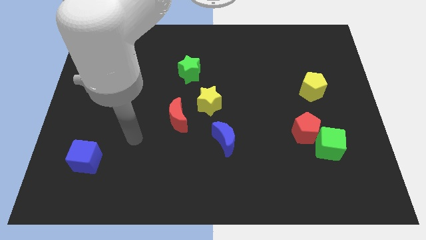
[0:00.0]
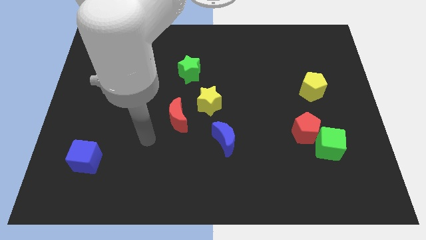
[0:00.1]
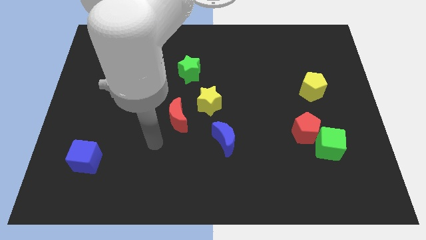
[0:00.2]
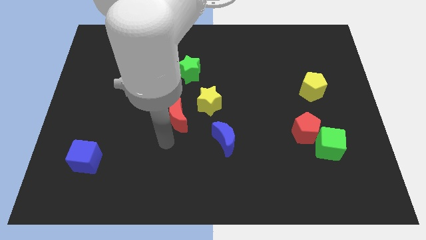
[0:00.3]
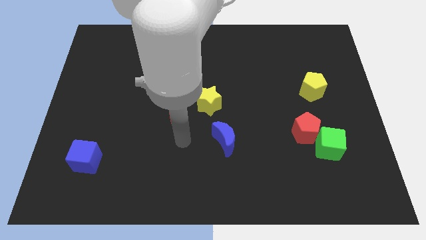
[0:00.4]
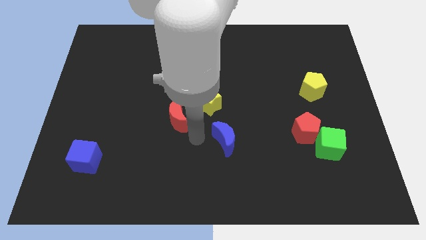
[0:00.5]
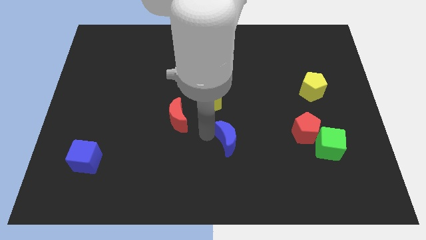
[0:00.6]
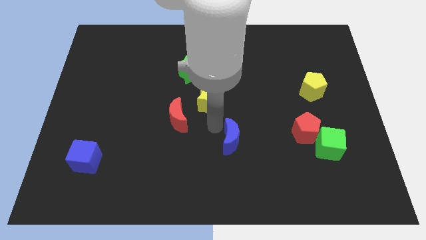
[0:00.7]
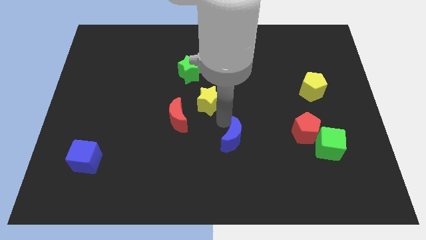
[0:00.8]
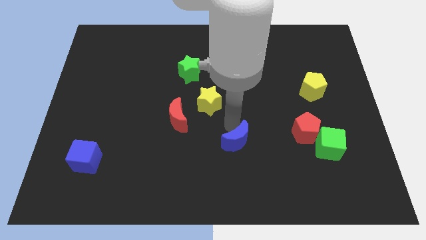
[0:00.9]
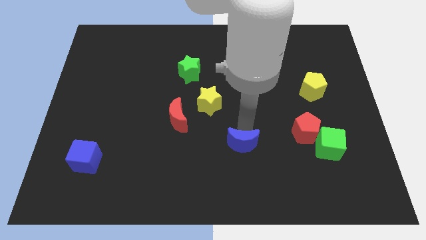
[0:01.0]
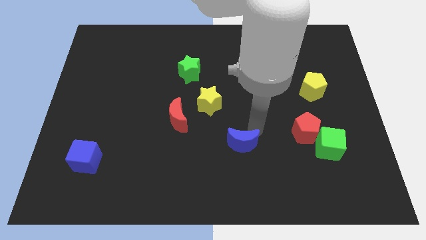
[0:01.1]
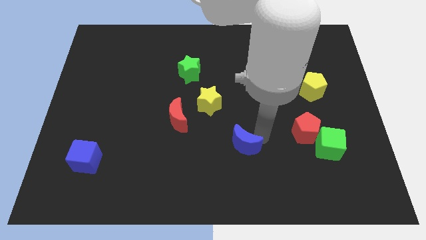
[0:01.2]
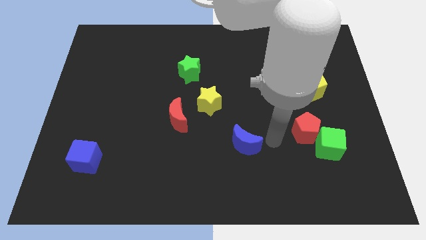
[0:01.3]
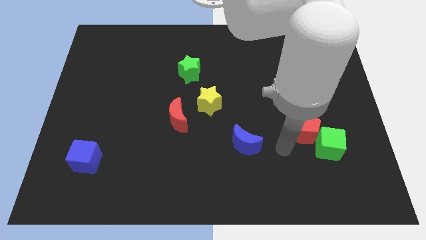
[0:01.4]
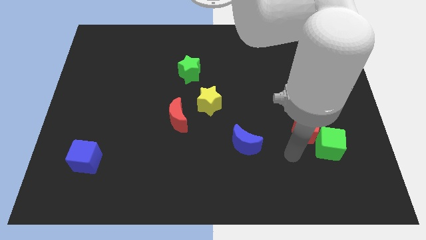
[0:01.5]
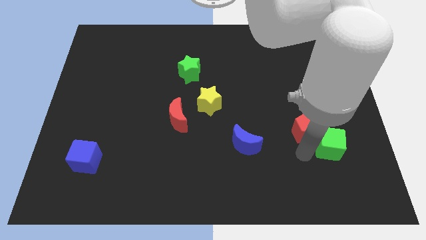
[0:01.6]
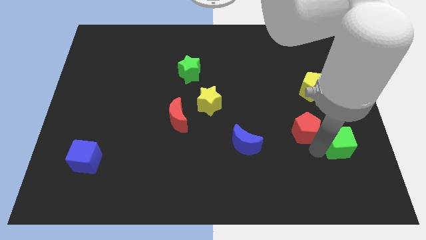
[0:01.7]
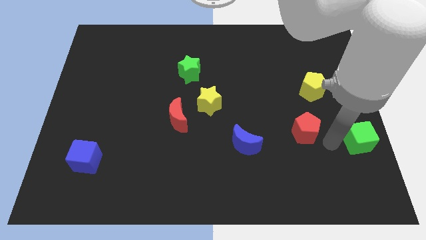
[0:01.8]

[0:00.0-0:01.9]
move the red pentagon away from the green cube

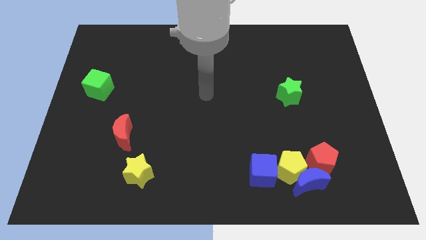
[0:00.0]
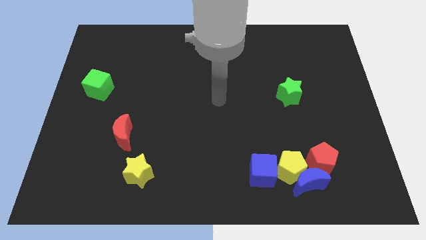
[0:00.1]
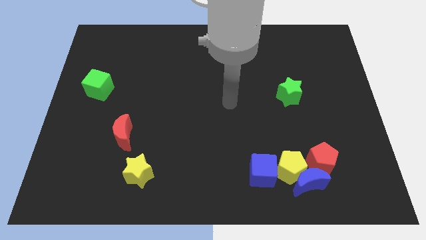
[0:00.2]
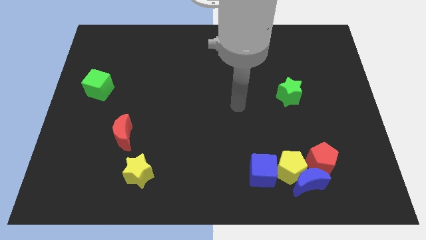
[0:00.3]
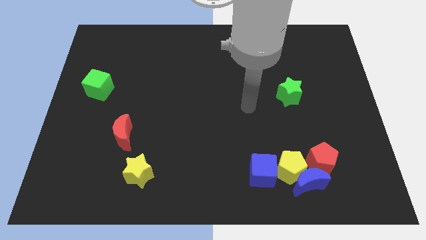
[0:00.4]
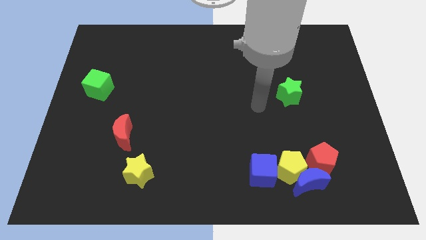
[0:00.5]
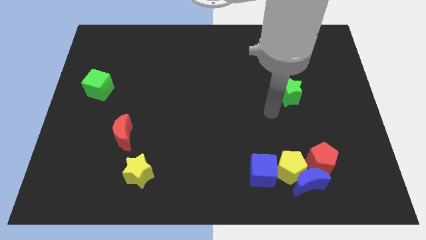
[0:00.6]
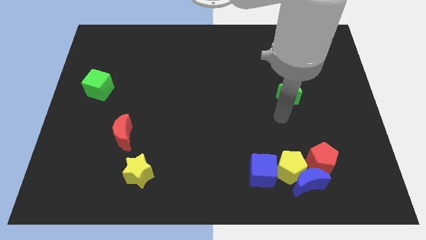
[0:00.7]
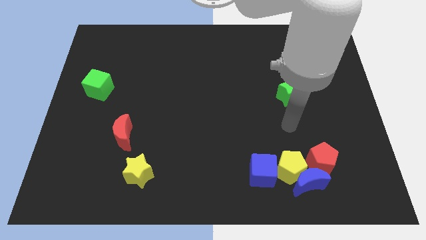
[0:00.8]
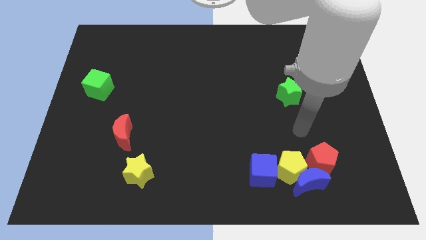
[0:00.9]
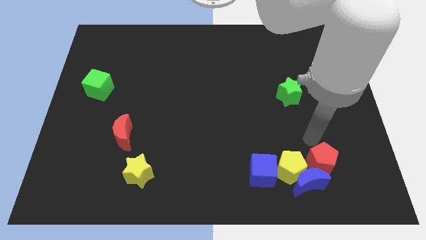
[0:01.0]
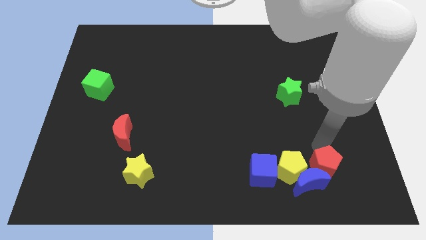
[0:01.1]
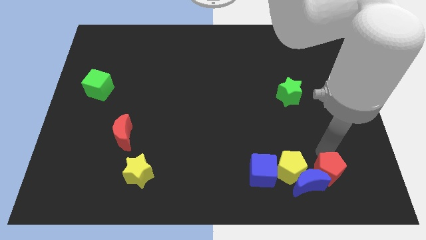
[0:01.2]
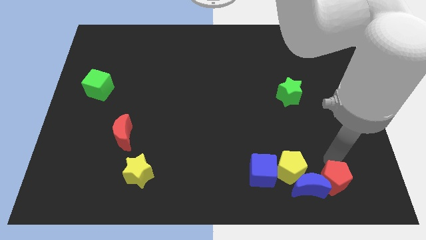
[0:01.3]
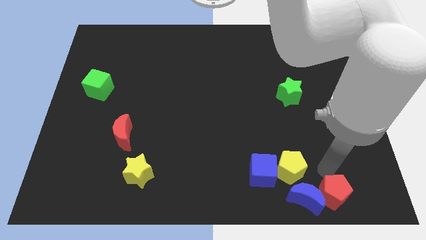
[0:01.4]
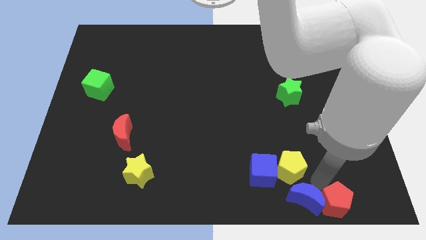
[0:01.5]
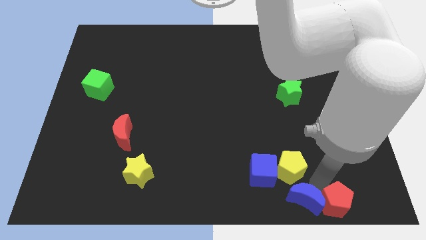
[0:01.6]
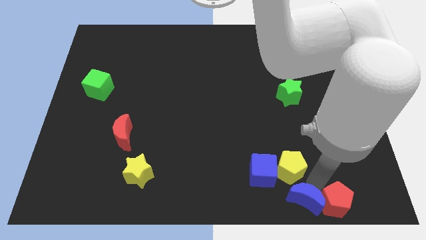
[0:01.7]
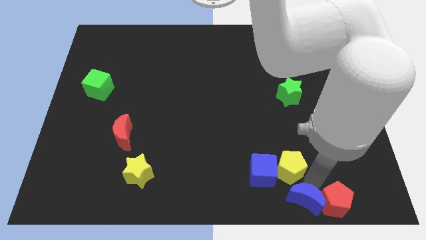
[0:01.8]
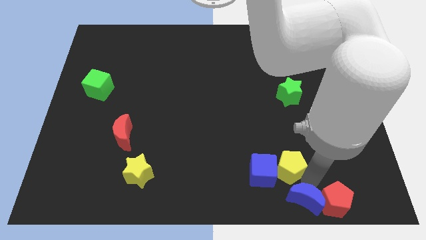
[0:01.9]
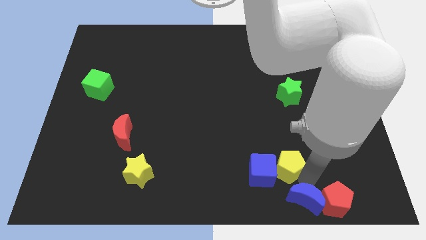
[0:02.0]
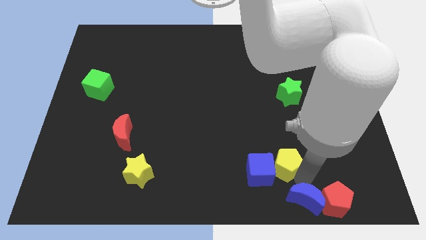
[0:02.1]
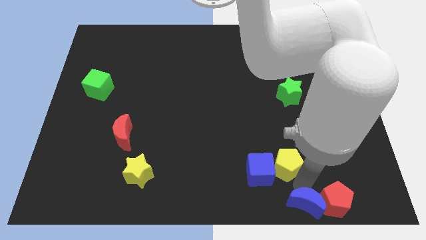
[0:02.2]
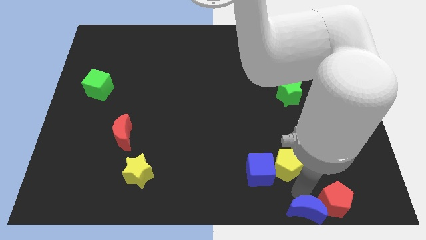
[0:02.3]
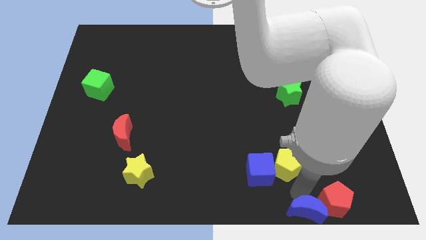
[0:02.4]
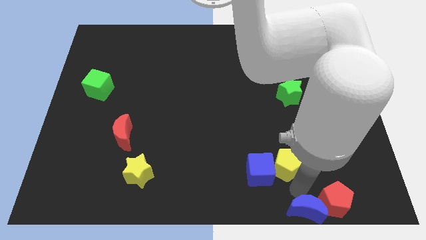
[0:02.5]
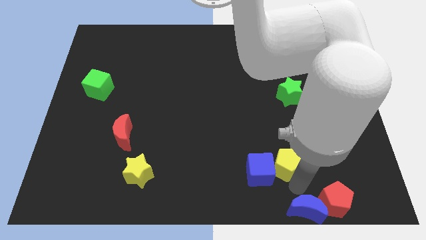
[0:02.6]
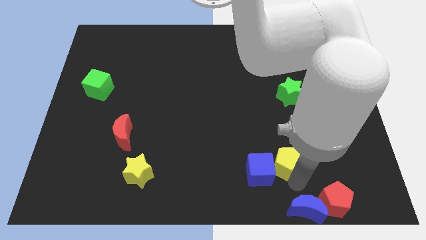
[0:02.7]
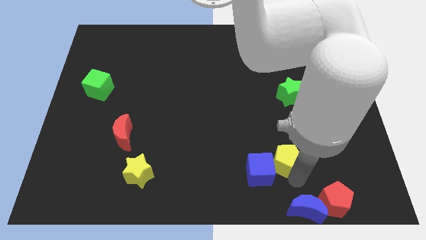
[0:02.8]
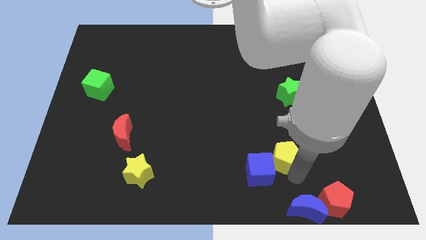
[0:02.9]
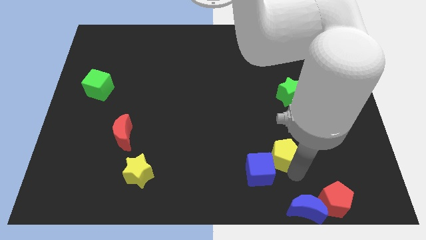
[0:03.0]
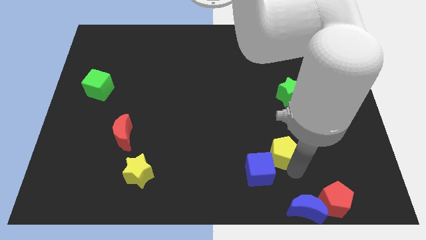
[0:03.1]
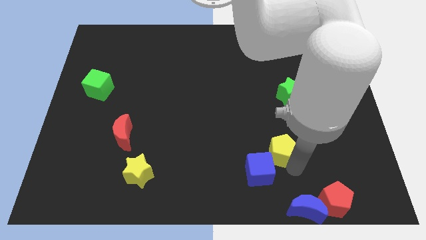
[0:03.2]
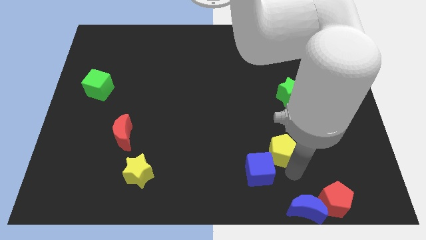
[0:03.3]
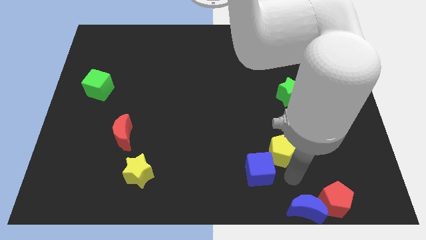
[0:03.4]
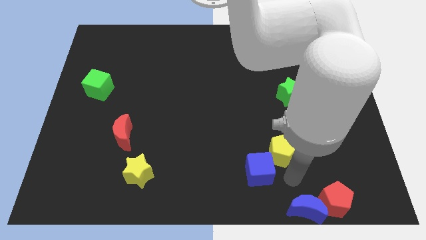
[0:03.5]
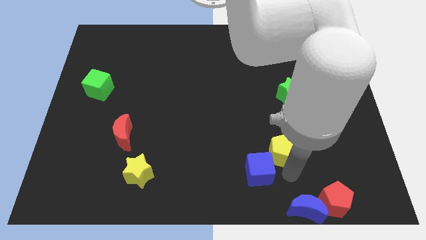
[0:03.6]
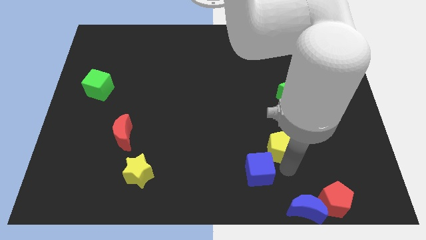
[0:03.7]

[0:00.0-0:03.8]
separate the yellow pentagon from the blue moon, blue cube, and red pentagon

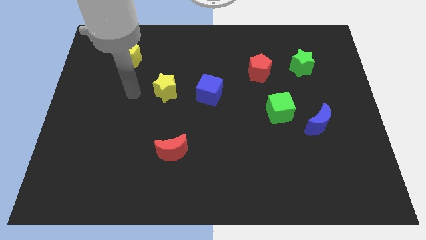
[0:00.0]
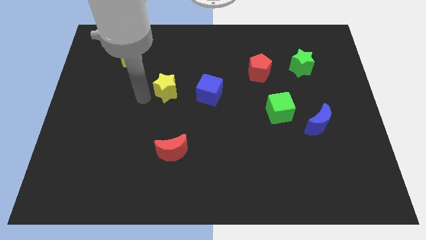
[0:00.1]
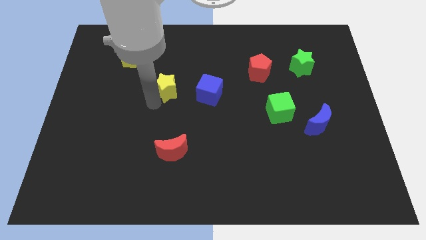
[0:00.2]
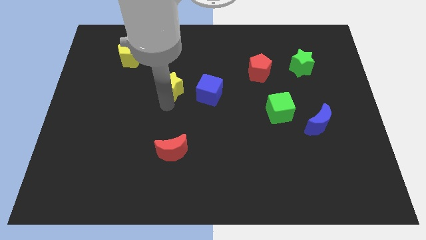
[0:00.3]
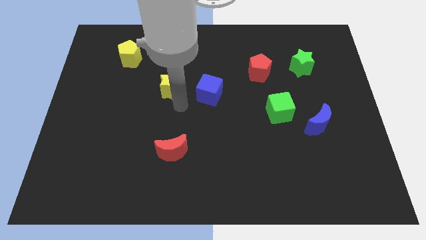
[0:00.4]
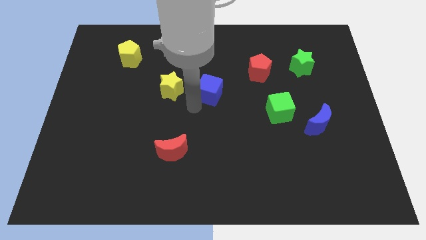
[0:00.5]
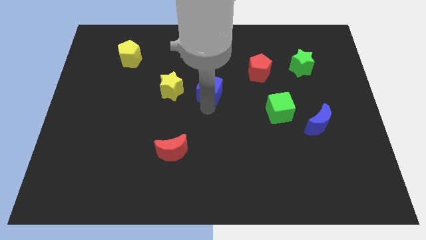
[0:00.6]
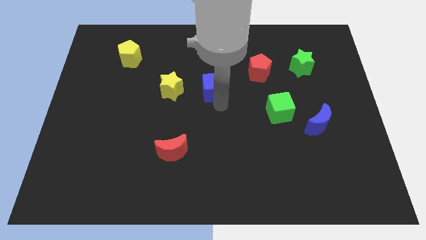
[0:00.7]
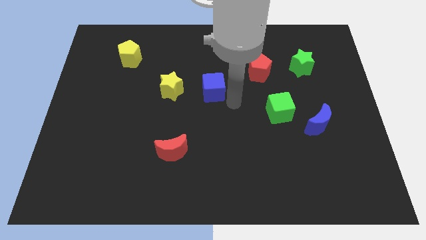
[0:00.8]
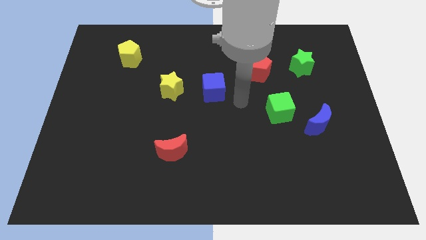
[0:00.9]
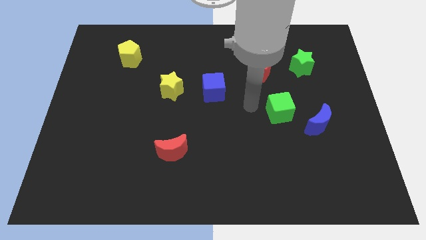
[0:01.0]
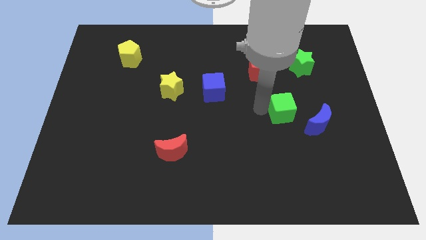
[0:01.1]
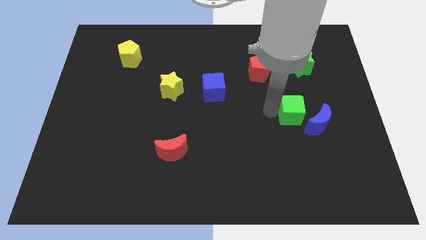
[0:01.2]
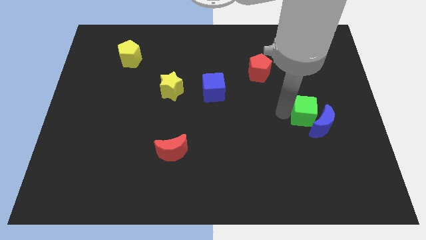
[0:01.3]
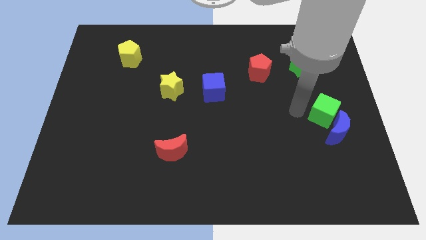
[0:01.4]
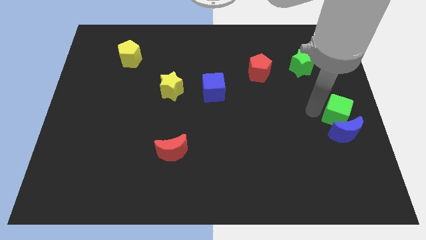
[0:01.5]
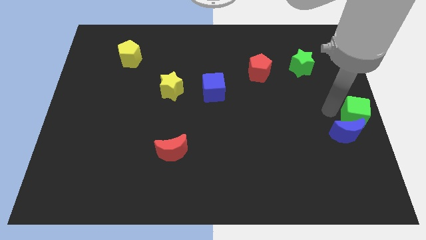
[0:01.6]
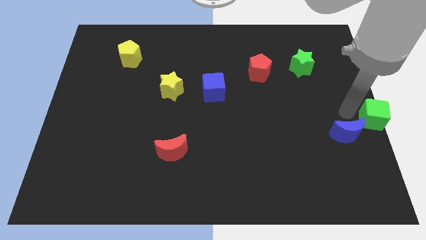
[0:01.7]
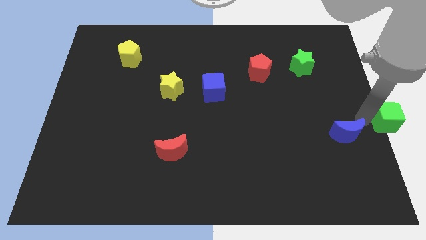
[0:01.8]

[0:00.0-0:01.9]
move the blue moon away from the green cube

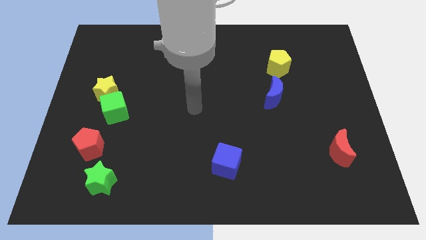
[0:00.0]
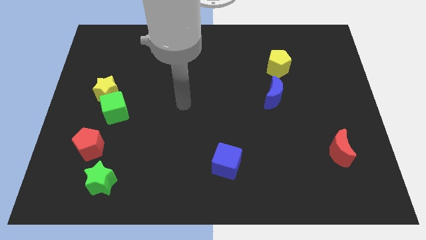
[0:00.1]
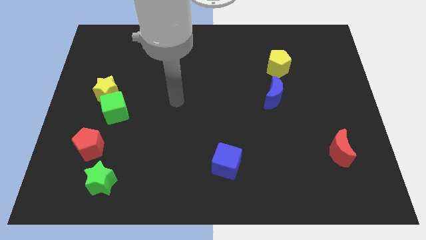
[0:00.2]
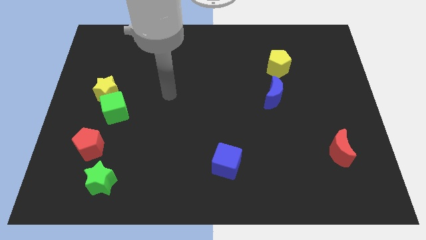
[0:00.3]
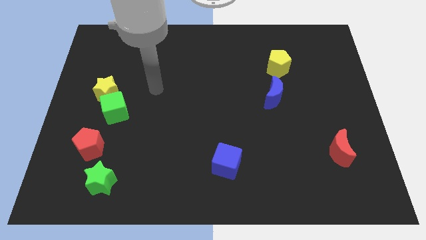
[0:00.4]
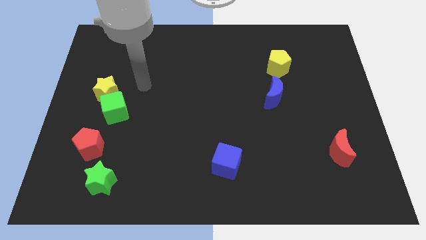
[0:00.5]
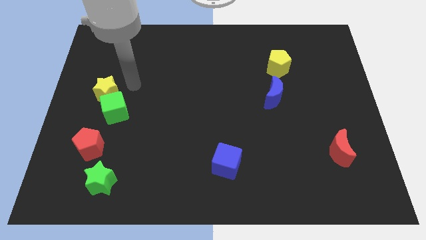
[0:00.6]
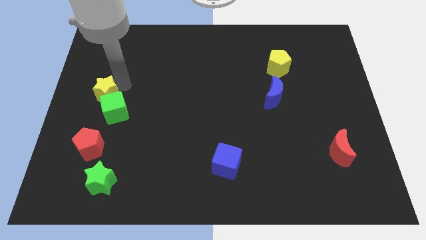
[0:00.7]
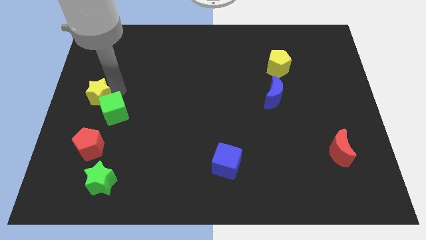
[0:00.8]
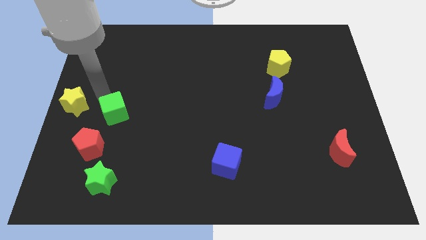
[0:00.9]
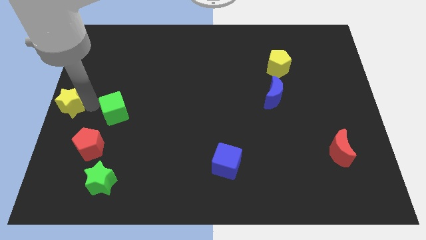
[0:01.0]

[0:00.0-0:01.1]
pull the green cube apart from the yellow star

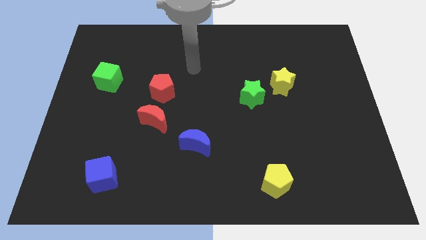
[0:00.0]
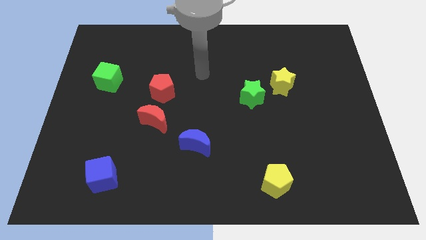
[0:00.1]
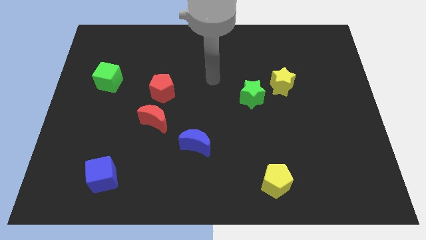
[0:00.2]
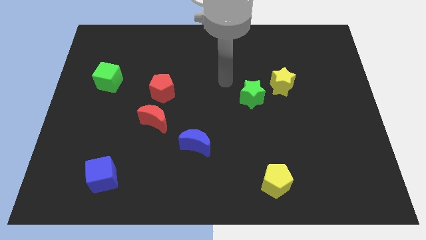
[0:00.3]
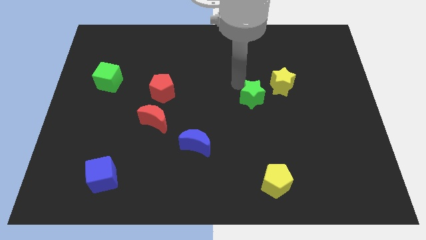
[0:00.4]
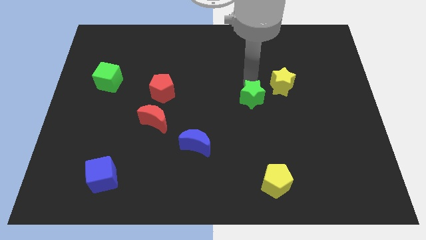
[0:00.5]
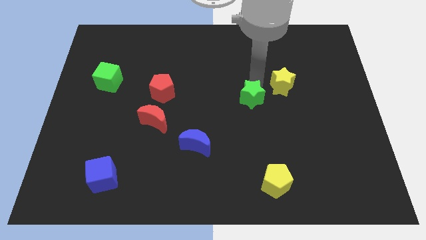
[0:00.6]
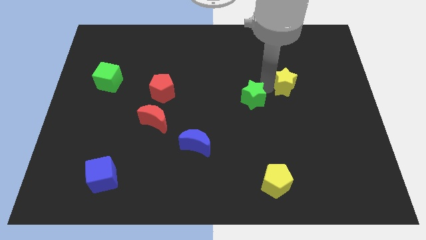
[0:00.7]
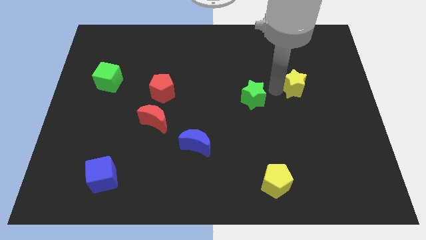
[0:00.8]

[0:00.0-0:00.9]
separate the green star from the yellow star
